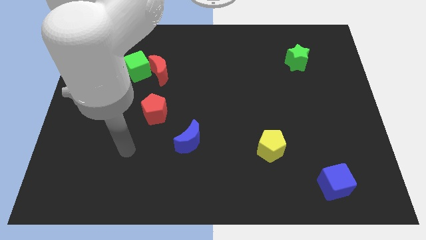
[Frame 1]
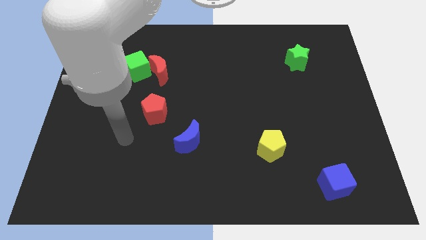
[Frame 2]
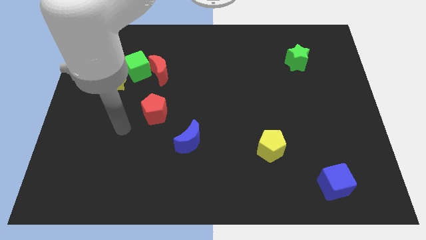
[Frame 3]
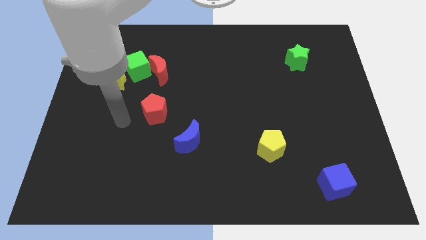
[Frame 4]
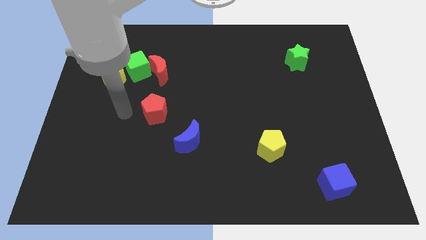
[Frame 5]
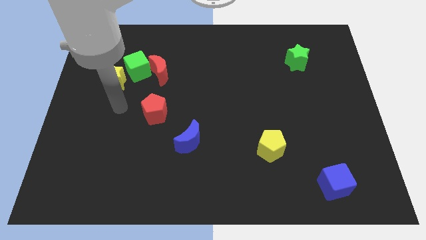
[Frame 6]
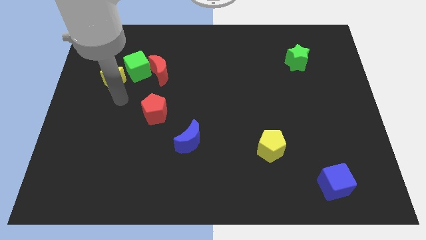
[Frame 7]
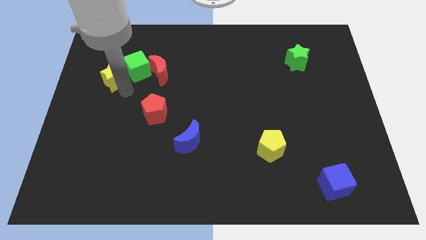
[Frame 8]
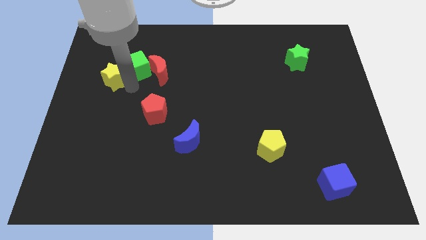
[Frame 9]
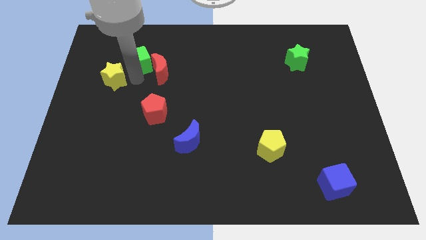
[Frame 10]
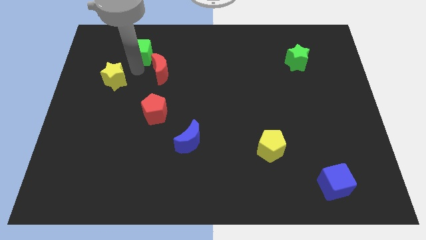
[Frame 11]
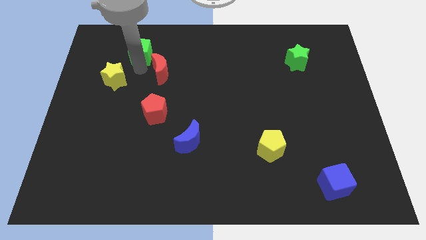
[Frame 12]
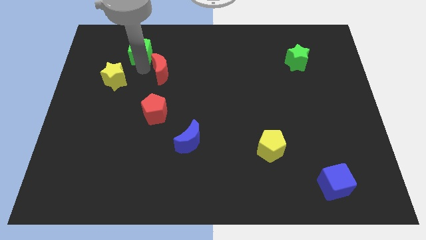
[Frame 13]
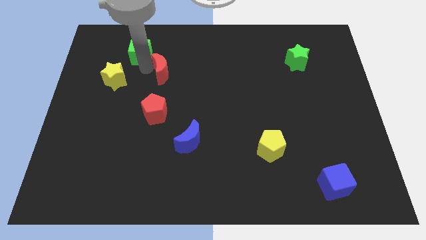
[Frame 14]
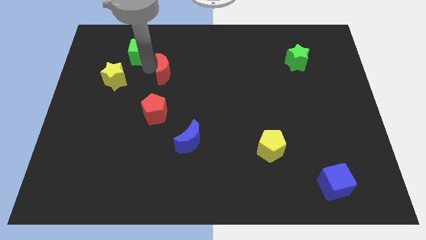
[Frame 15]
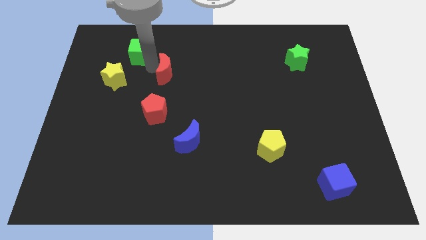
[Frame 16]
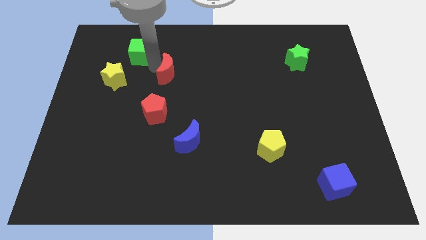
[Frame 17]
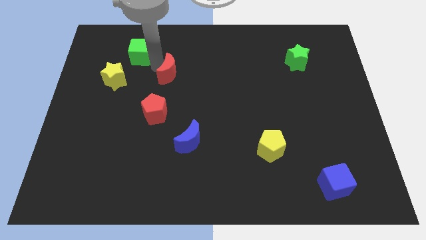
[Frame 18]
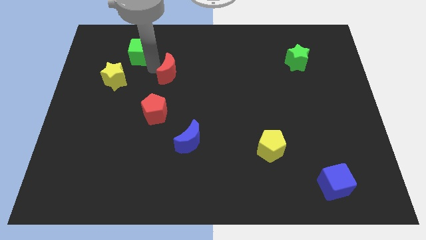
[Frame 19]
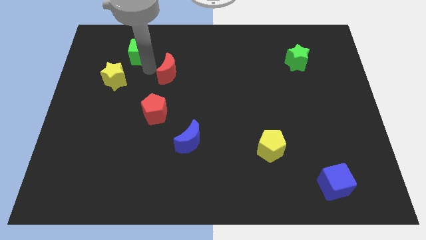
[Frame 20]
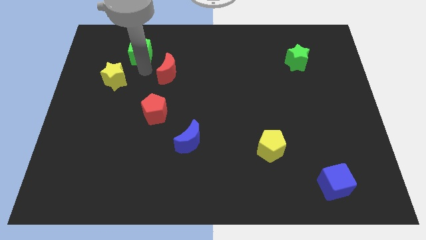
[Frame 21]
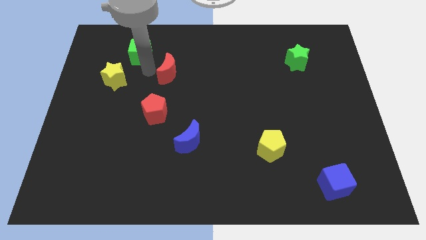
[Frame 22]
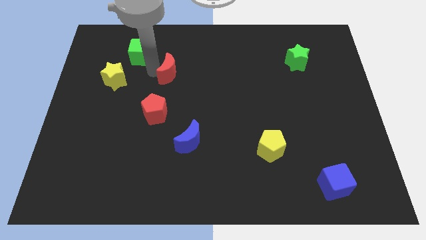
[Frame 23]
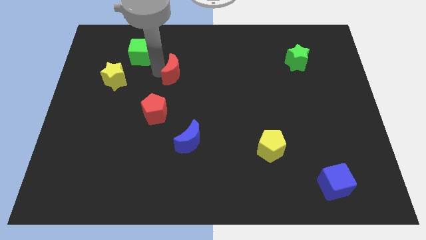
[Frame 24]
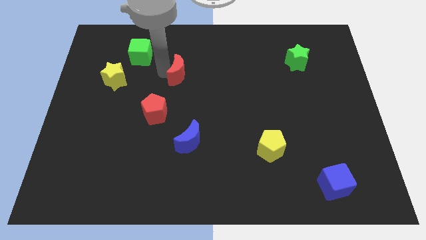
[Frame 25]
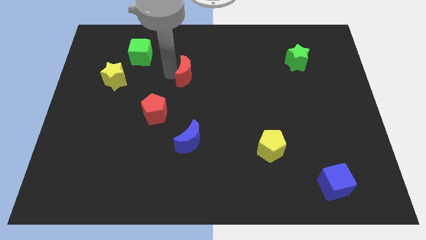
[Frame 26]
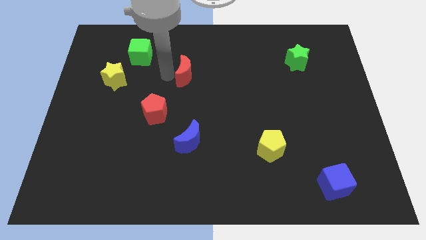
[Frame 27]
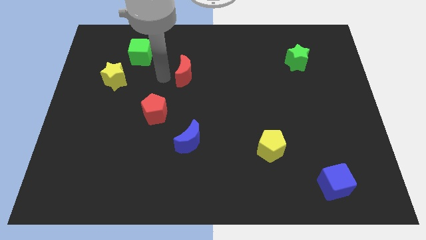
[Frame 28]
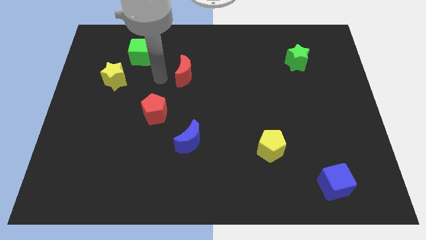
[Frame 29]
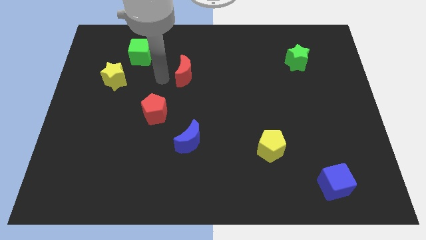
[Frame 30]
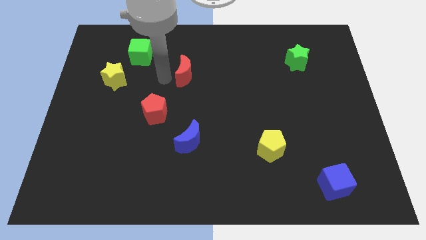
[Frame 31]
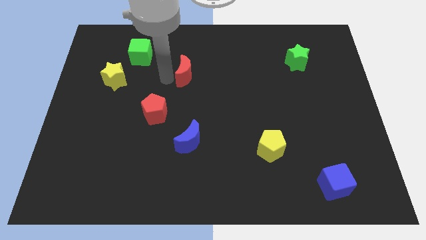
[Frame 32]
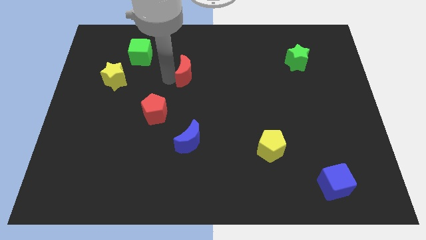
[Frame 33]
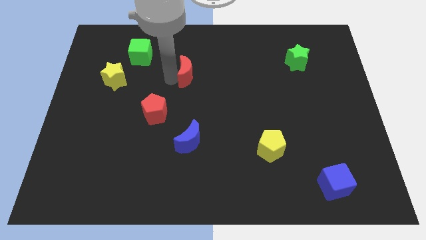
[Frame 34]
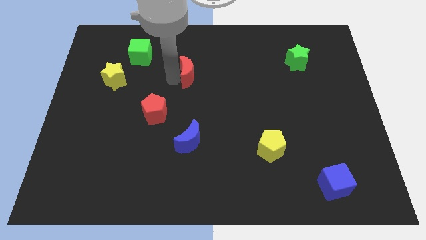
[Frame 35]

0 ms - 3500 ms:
move the red moon right a bit

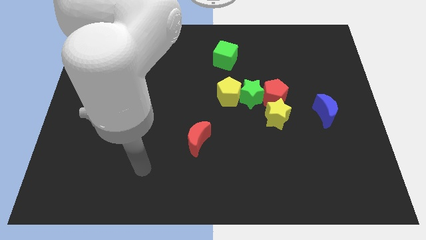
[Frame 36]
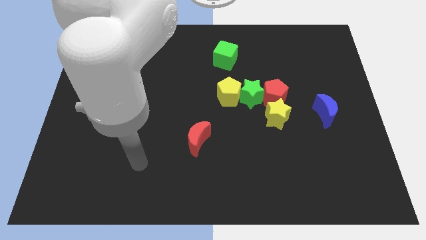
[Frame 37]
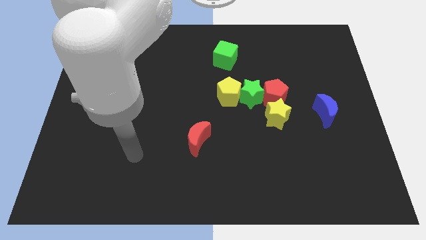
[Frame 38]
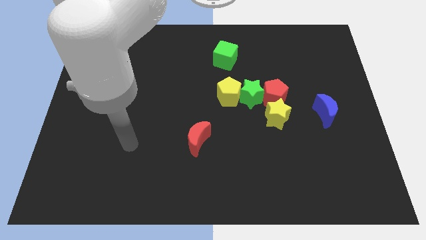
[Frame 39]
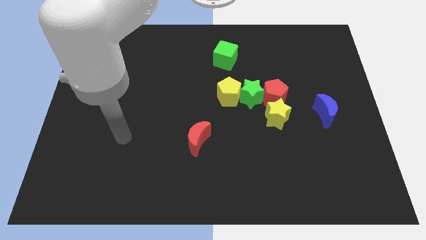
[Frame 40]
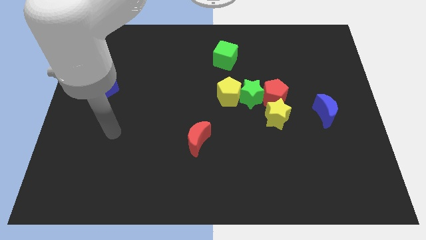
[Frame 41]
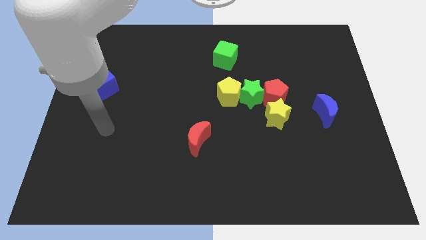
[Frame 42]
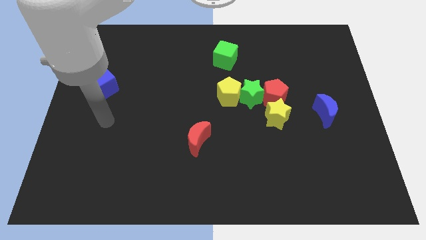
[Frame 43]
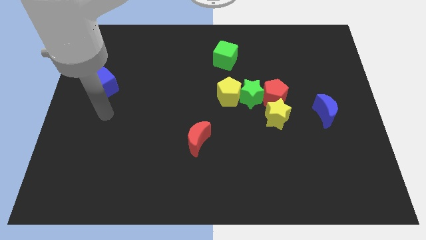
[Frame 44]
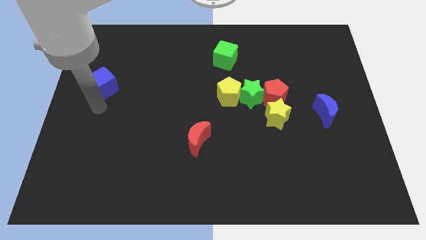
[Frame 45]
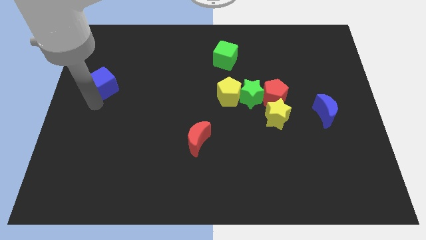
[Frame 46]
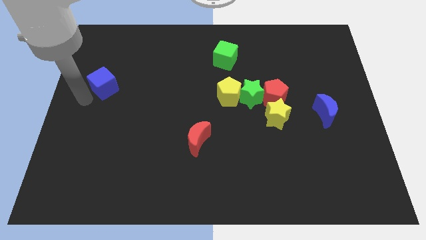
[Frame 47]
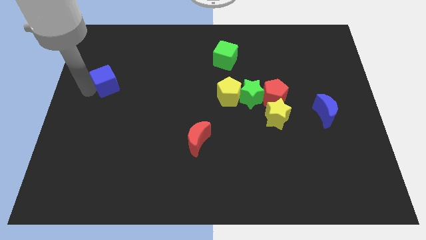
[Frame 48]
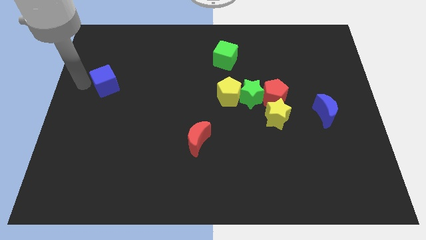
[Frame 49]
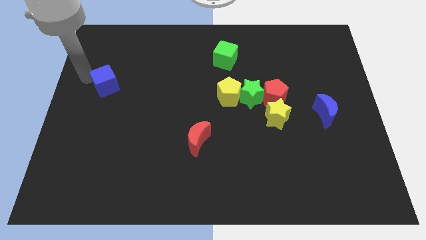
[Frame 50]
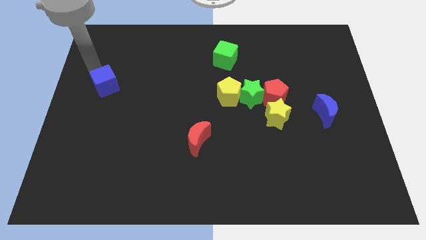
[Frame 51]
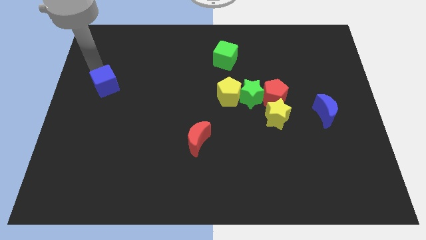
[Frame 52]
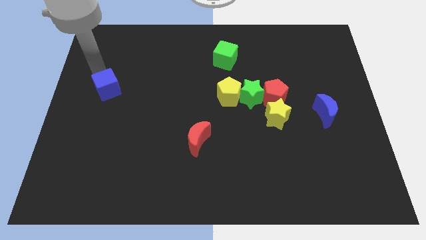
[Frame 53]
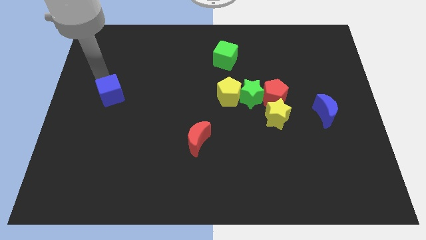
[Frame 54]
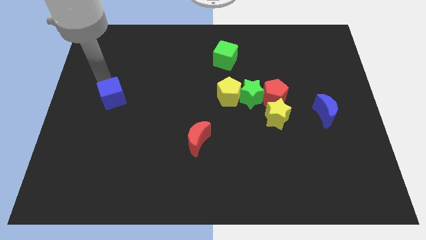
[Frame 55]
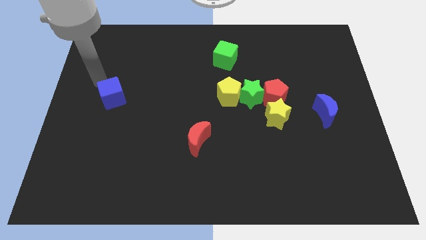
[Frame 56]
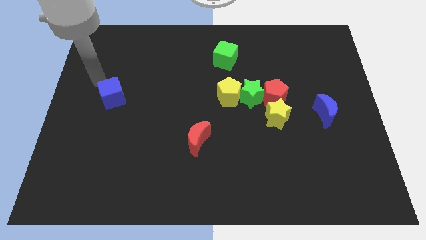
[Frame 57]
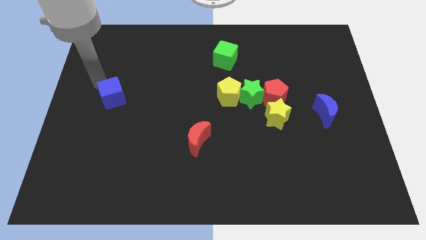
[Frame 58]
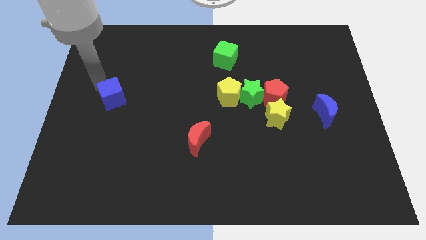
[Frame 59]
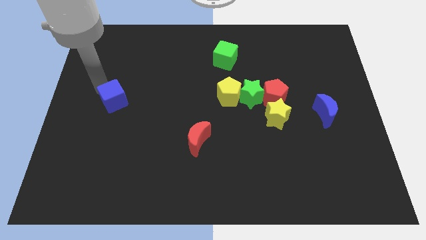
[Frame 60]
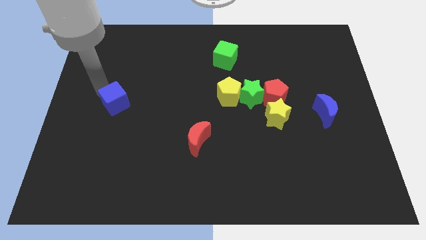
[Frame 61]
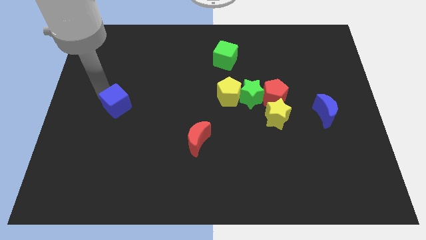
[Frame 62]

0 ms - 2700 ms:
move the blue cube somewhat down and to the right

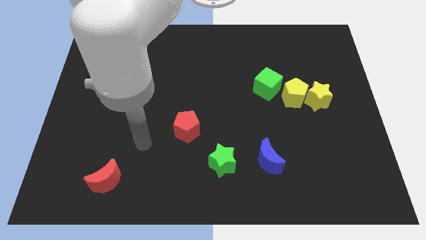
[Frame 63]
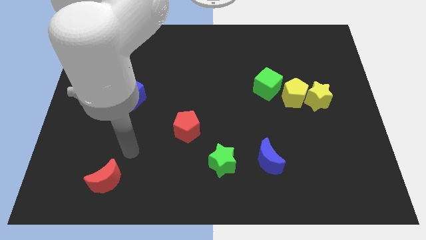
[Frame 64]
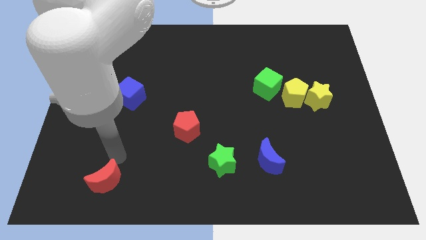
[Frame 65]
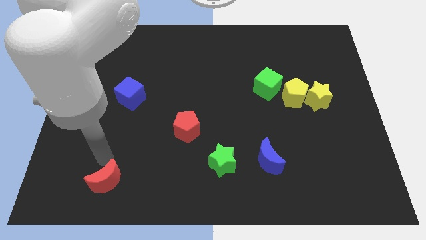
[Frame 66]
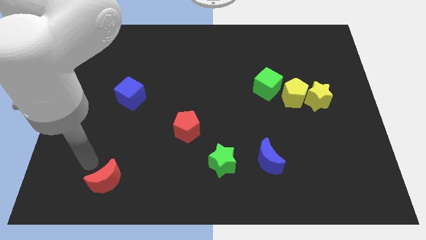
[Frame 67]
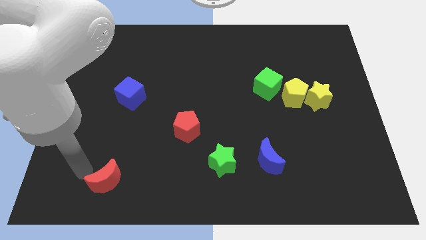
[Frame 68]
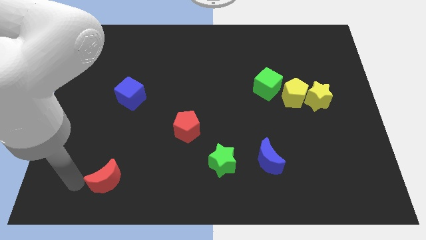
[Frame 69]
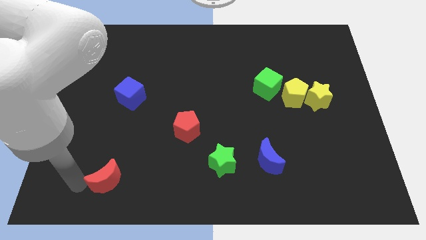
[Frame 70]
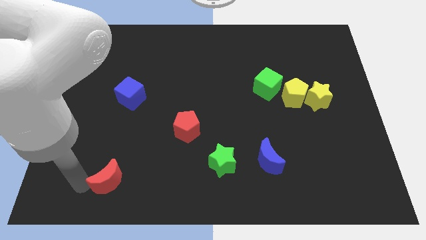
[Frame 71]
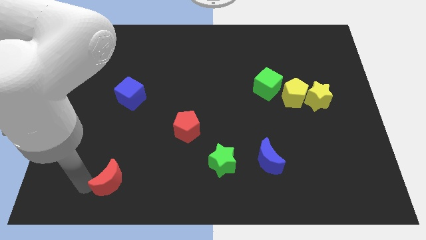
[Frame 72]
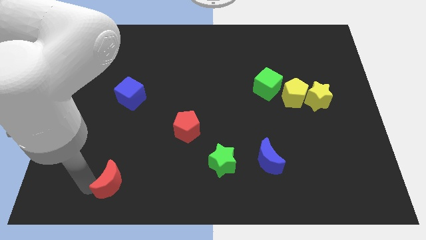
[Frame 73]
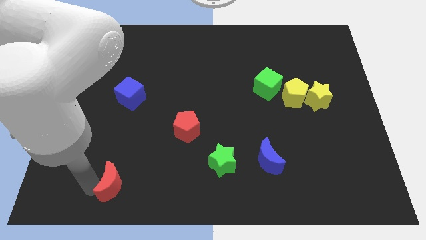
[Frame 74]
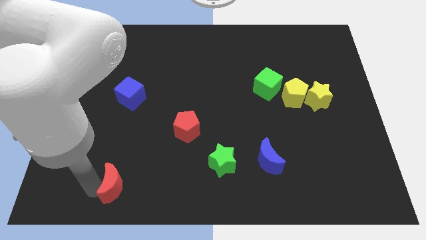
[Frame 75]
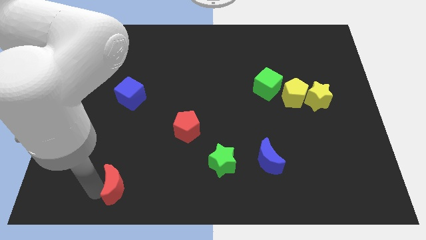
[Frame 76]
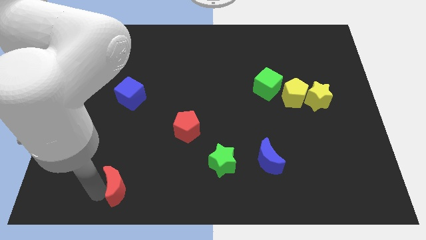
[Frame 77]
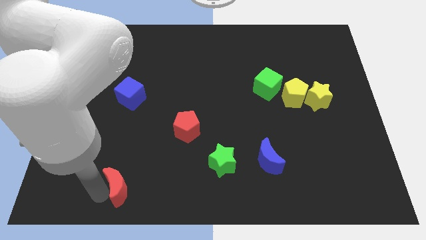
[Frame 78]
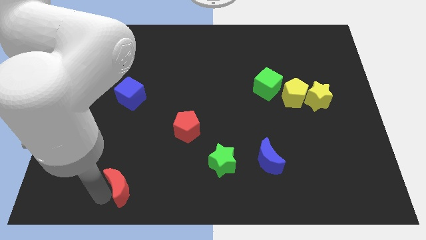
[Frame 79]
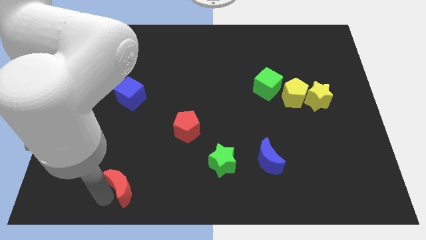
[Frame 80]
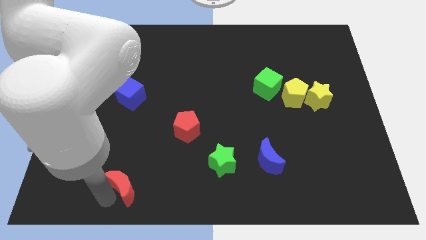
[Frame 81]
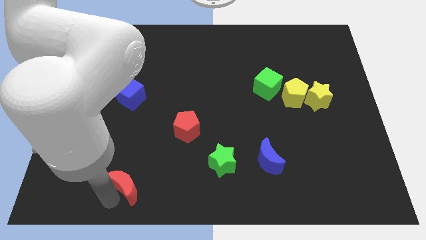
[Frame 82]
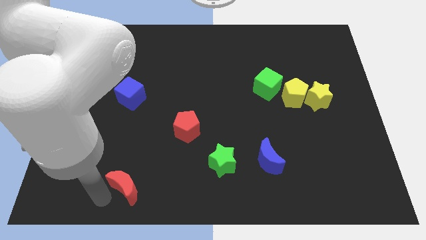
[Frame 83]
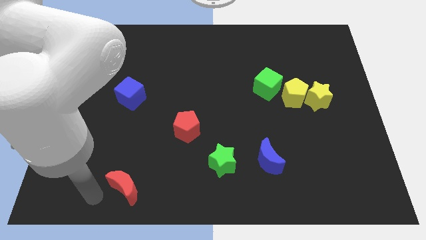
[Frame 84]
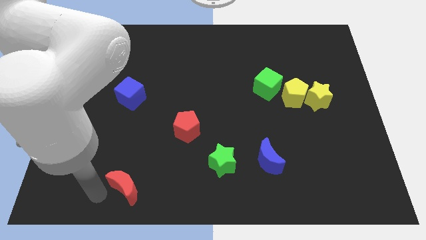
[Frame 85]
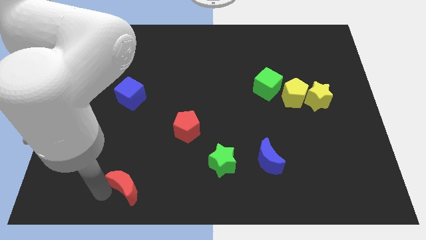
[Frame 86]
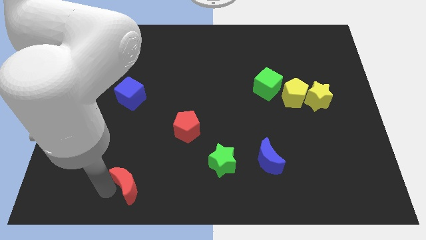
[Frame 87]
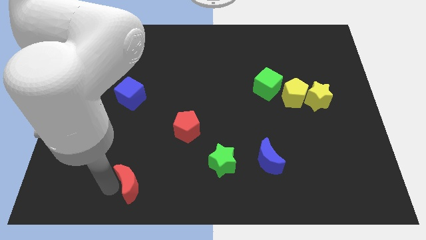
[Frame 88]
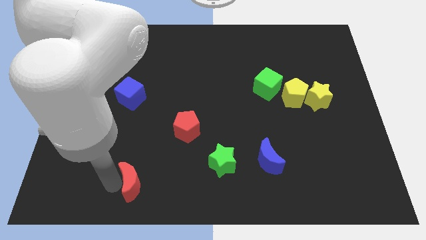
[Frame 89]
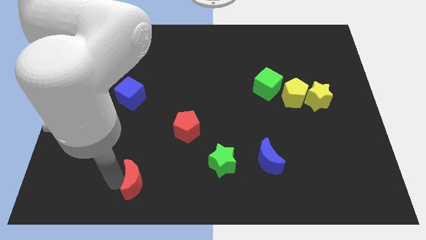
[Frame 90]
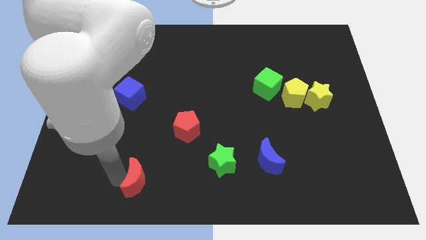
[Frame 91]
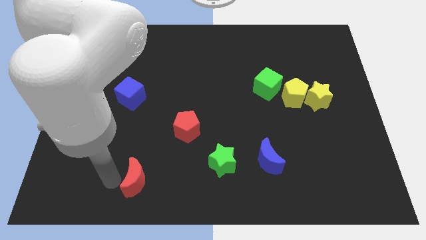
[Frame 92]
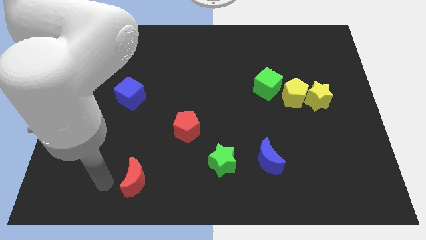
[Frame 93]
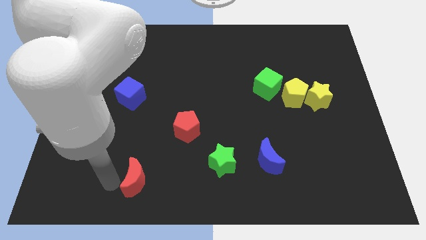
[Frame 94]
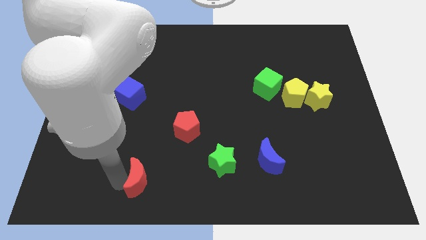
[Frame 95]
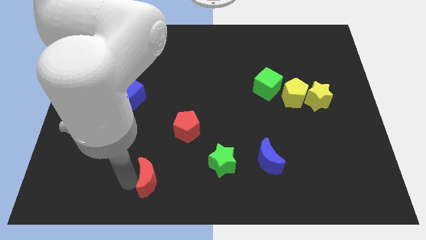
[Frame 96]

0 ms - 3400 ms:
move the red moon right somewhat
